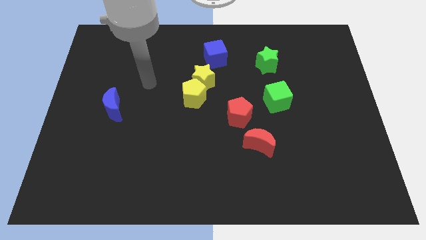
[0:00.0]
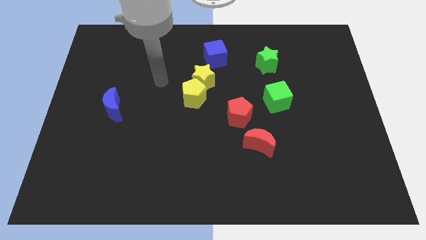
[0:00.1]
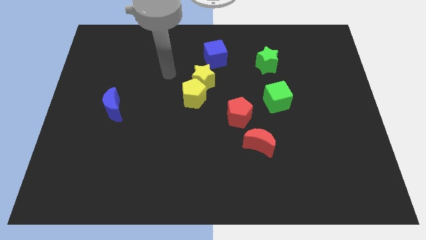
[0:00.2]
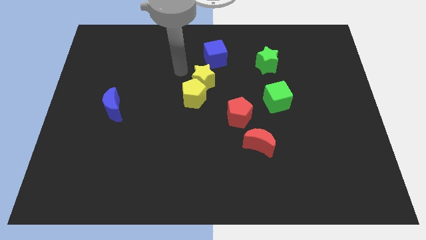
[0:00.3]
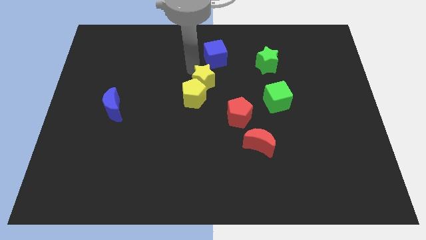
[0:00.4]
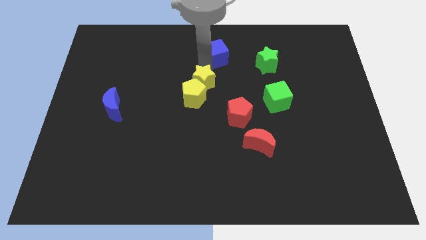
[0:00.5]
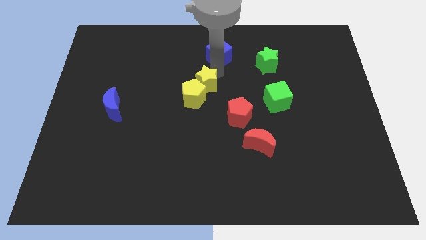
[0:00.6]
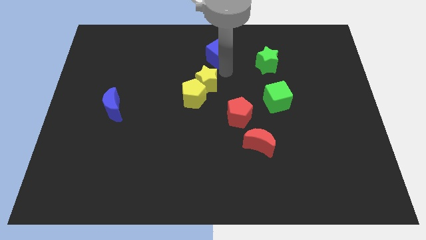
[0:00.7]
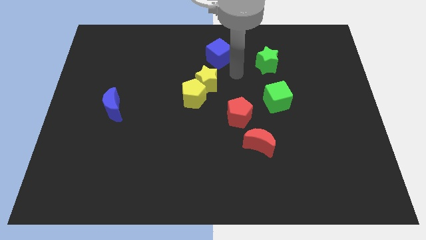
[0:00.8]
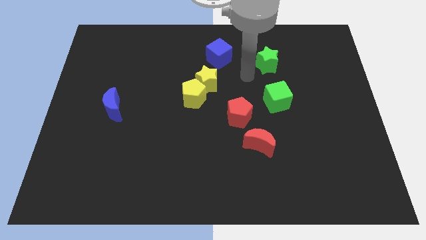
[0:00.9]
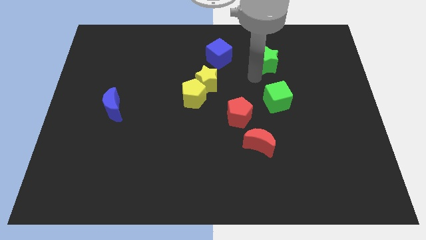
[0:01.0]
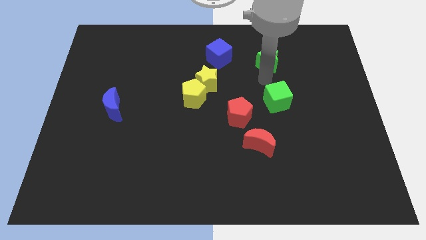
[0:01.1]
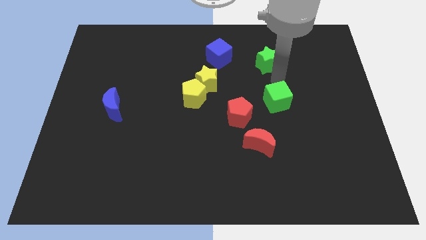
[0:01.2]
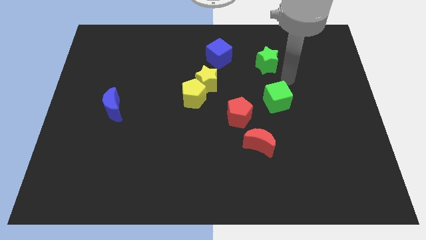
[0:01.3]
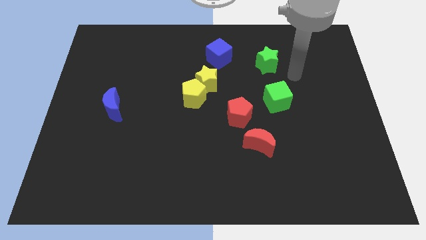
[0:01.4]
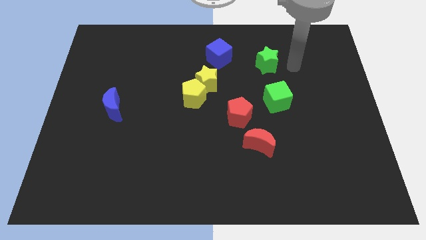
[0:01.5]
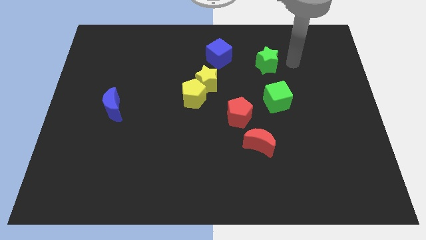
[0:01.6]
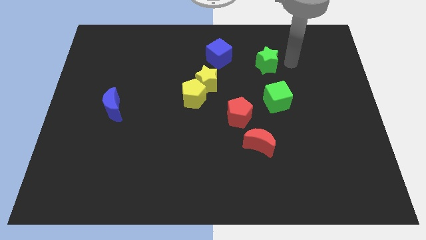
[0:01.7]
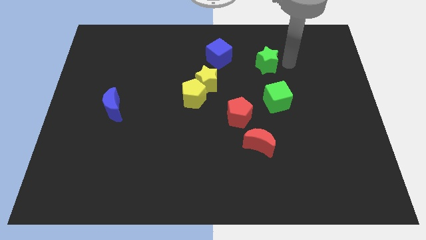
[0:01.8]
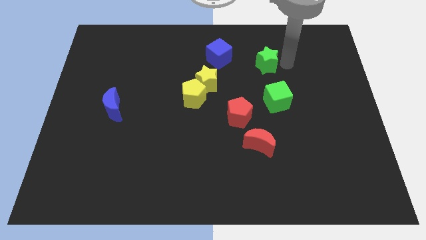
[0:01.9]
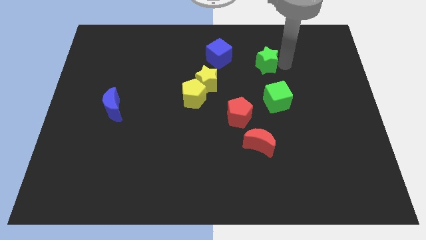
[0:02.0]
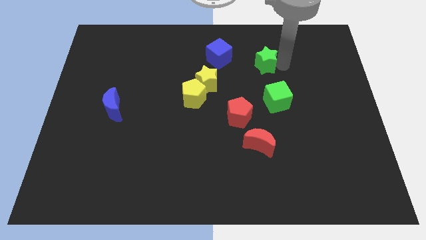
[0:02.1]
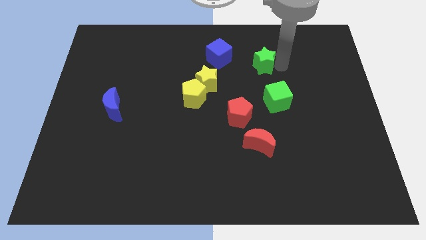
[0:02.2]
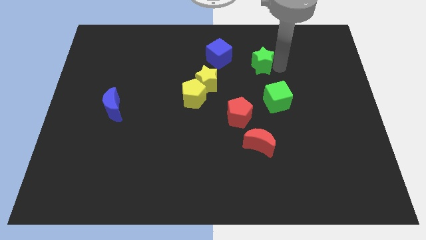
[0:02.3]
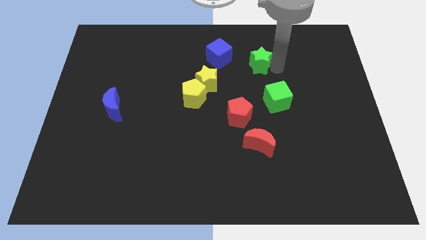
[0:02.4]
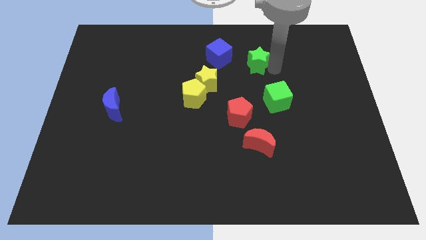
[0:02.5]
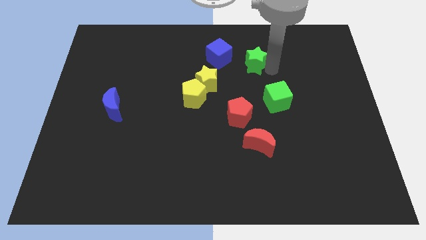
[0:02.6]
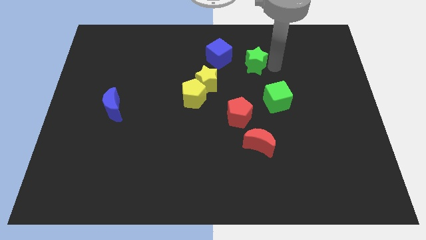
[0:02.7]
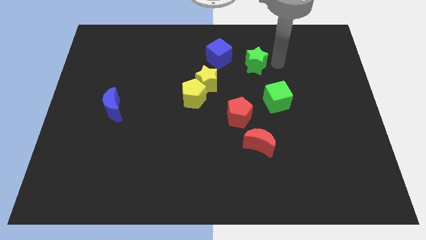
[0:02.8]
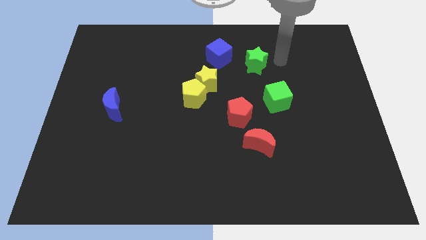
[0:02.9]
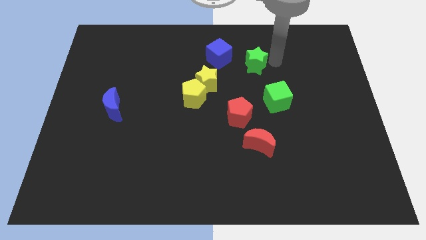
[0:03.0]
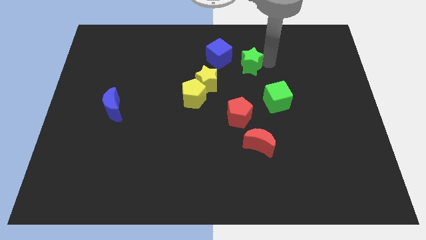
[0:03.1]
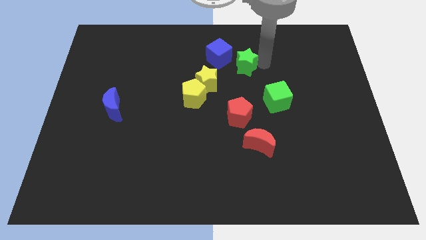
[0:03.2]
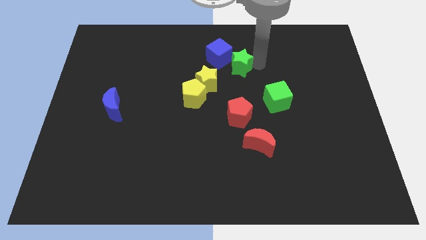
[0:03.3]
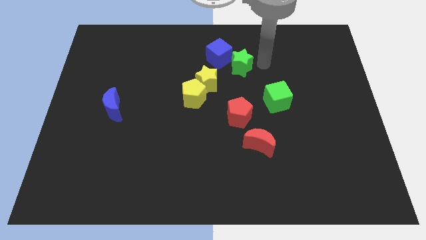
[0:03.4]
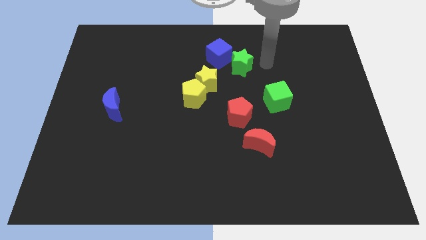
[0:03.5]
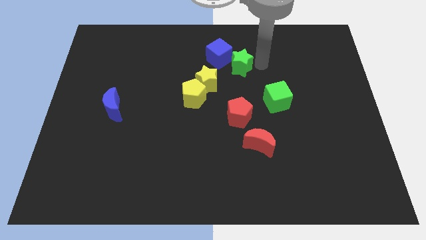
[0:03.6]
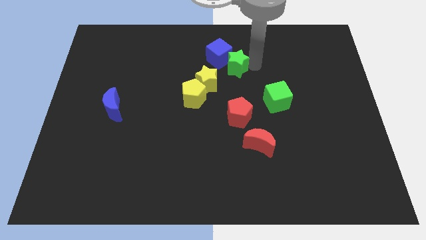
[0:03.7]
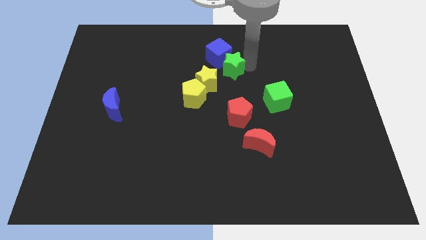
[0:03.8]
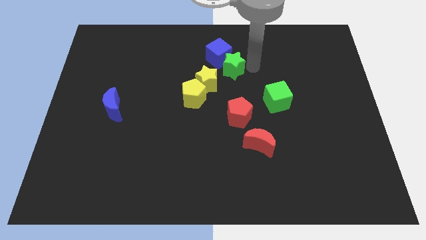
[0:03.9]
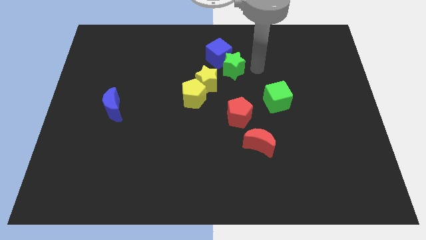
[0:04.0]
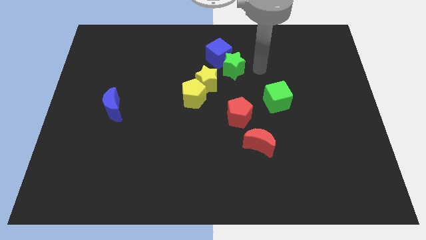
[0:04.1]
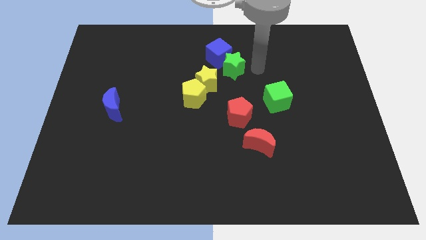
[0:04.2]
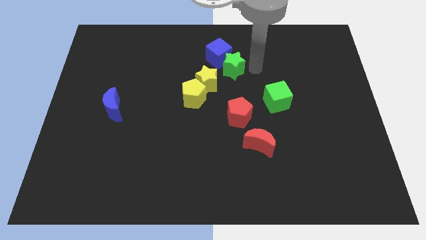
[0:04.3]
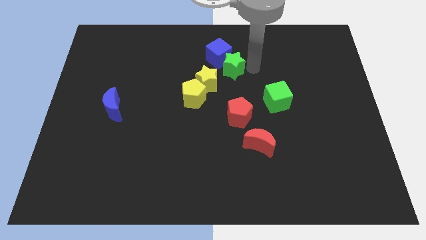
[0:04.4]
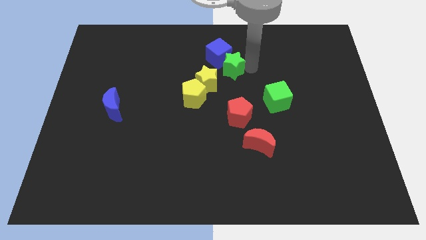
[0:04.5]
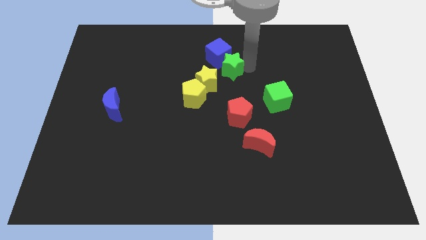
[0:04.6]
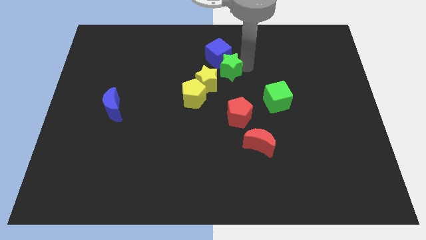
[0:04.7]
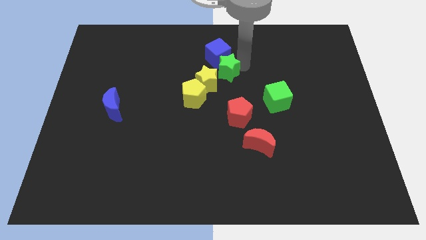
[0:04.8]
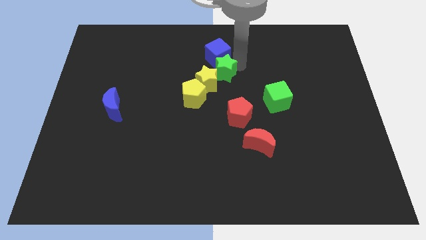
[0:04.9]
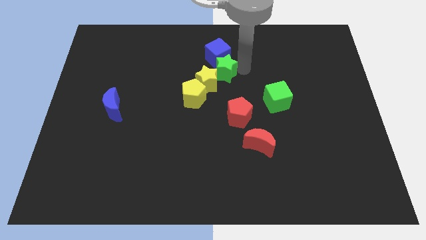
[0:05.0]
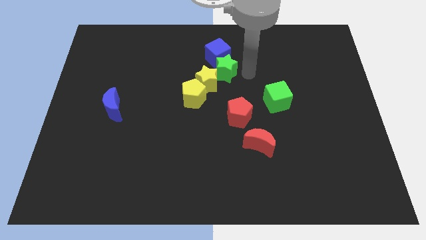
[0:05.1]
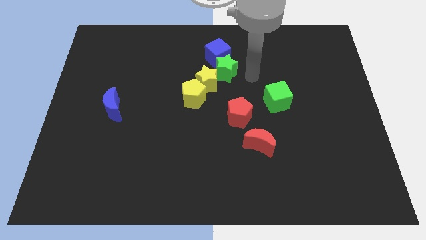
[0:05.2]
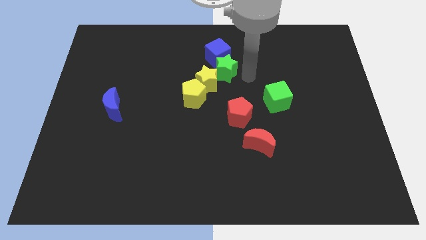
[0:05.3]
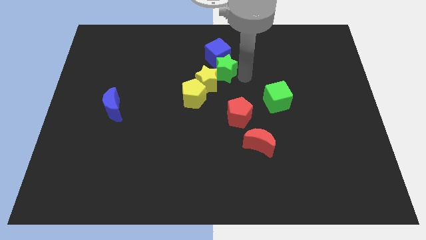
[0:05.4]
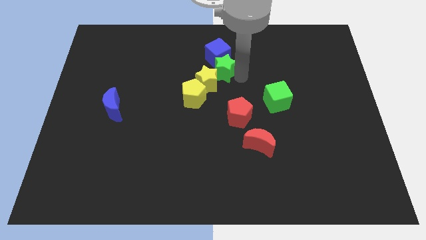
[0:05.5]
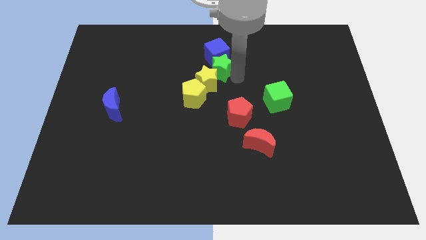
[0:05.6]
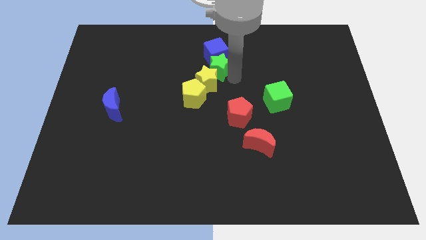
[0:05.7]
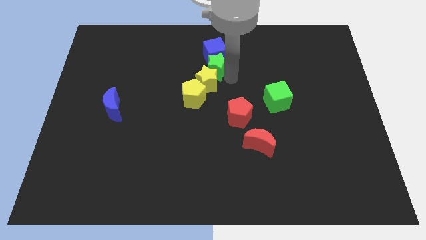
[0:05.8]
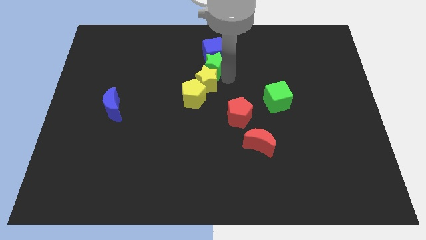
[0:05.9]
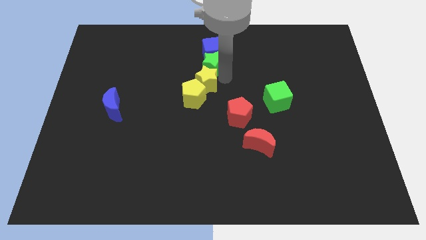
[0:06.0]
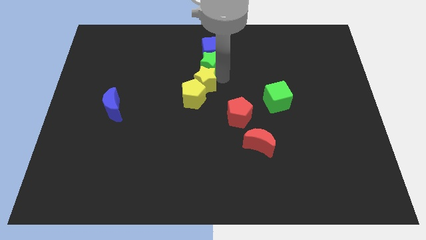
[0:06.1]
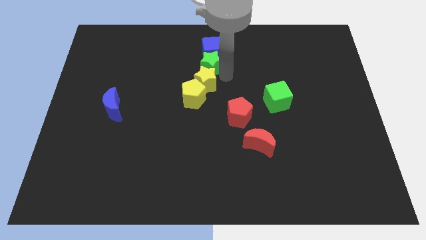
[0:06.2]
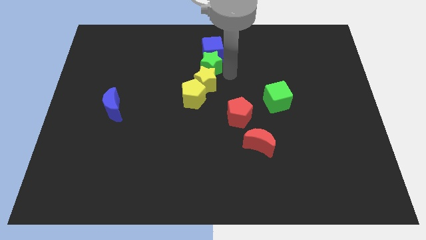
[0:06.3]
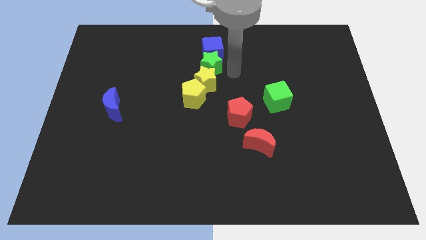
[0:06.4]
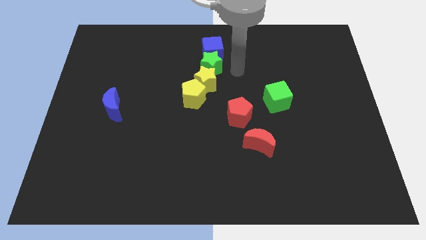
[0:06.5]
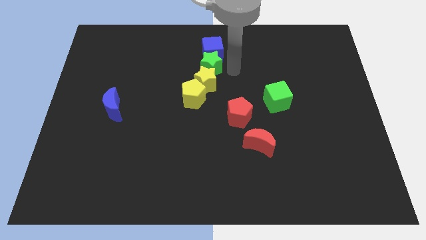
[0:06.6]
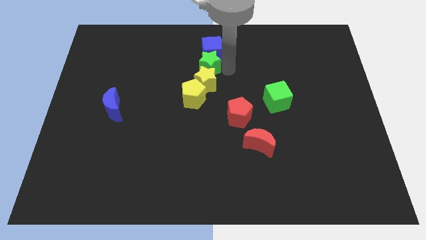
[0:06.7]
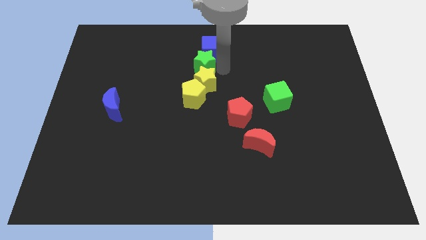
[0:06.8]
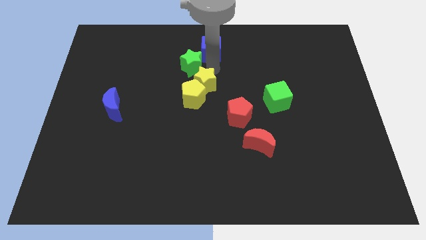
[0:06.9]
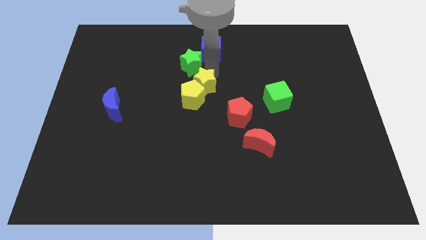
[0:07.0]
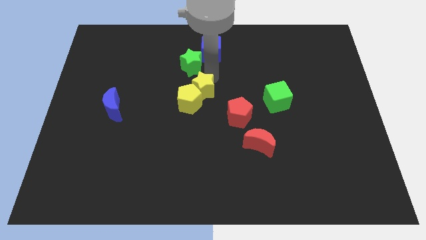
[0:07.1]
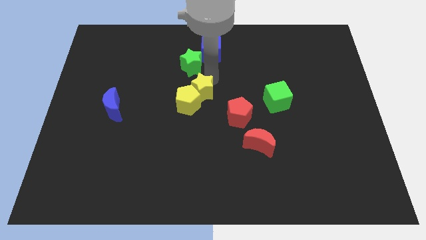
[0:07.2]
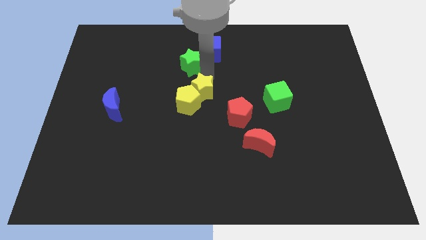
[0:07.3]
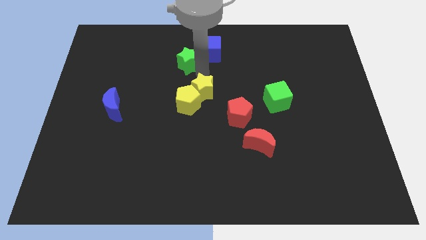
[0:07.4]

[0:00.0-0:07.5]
put the green star to the left of the blue cube

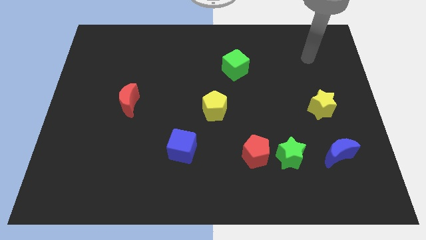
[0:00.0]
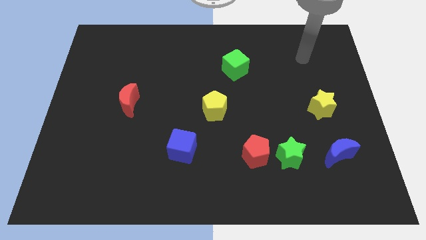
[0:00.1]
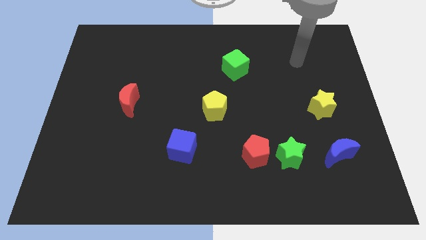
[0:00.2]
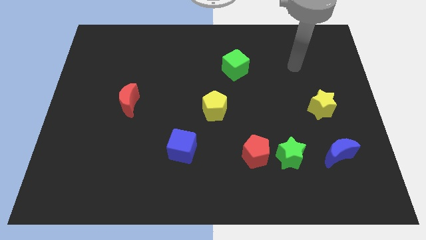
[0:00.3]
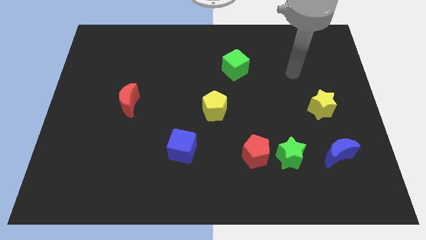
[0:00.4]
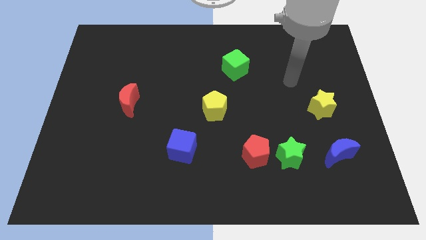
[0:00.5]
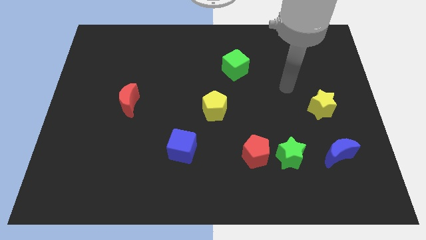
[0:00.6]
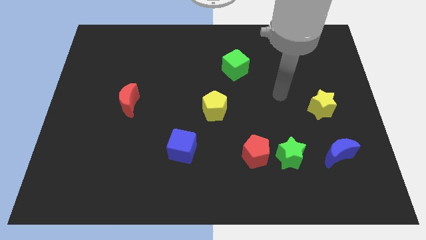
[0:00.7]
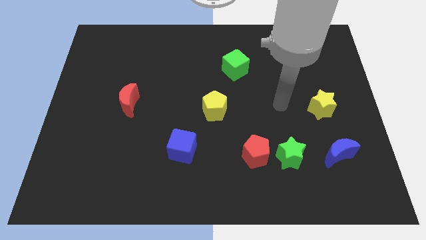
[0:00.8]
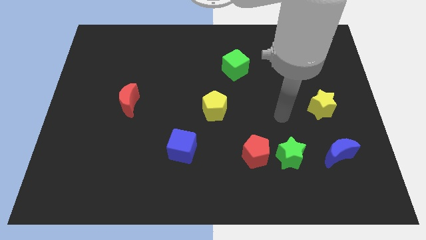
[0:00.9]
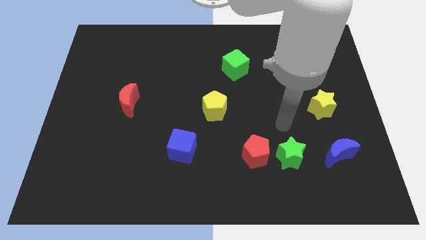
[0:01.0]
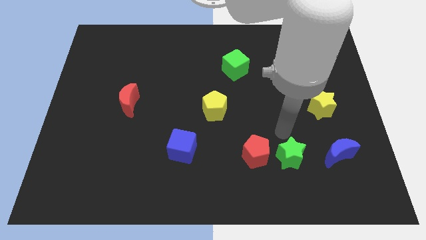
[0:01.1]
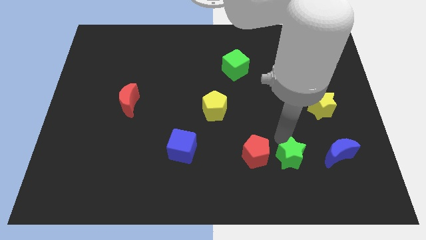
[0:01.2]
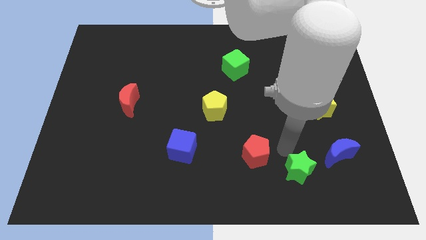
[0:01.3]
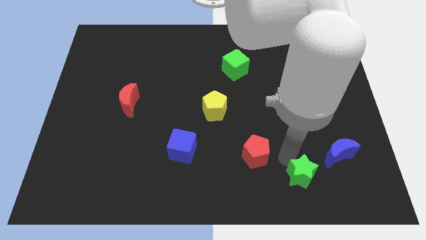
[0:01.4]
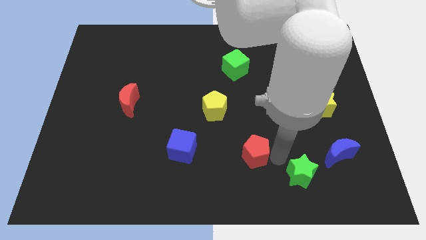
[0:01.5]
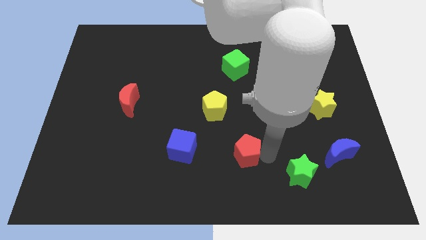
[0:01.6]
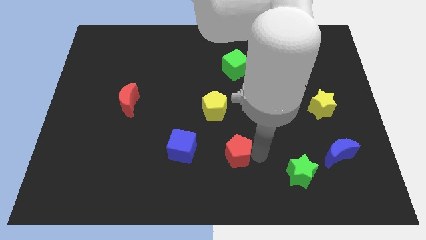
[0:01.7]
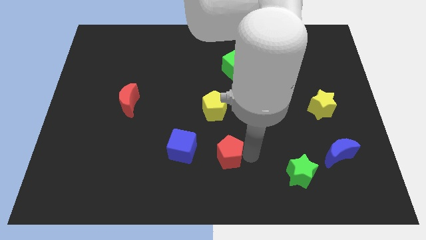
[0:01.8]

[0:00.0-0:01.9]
push the red pentagon below the yellow pentagon
